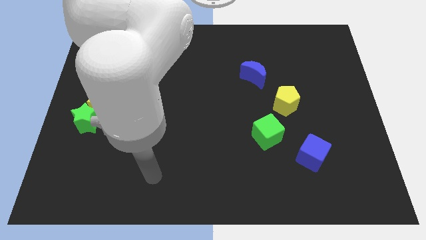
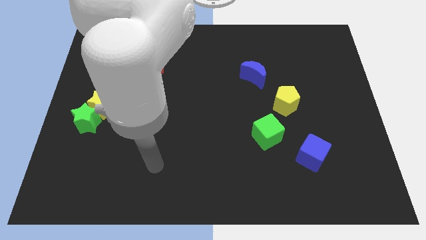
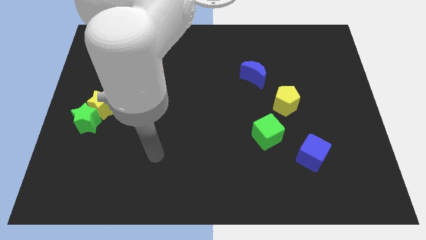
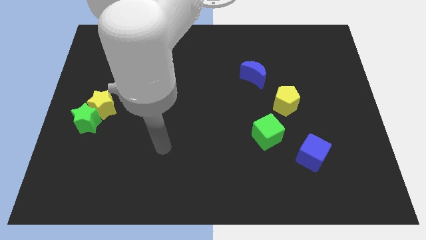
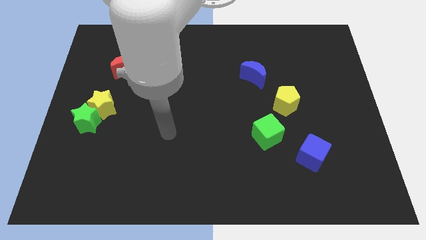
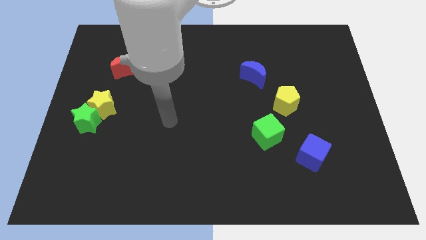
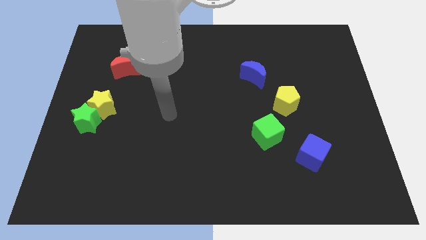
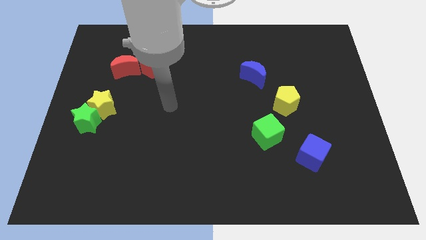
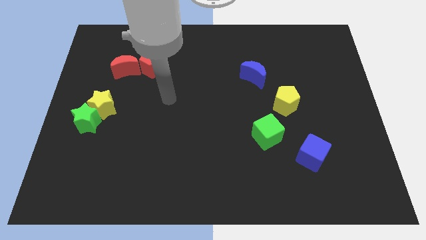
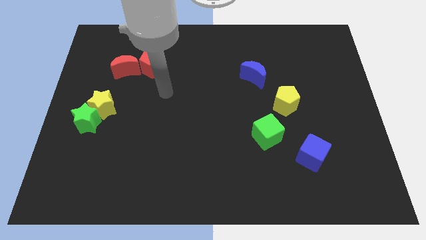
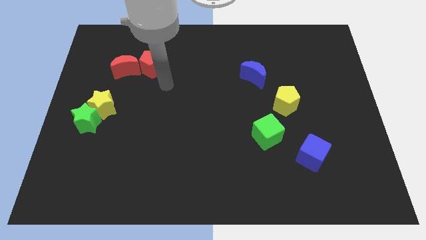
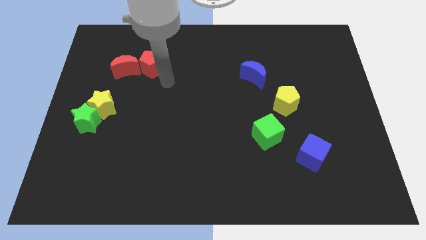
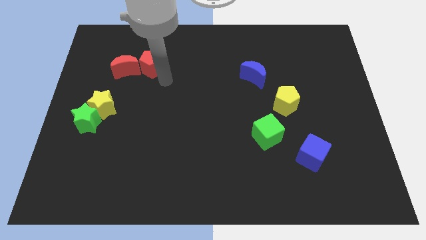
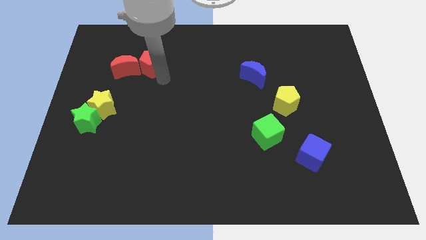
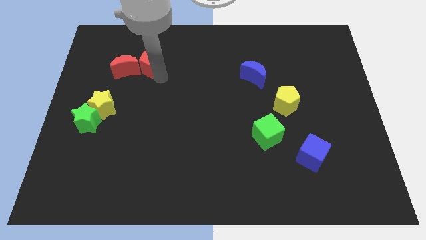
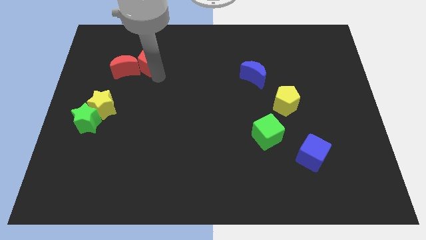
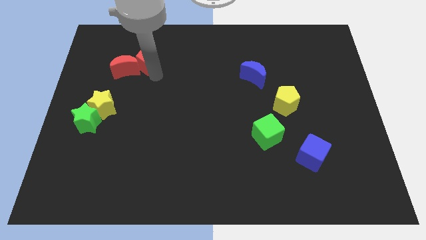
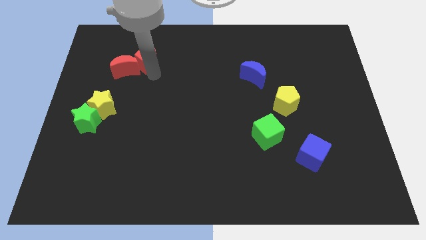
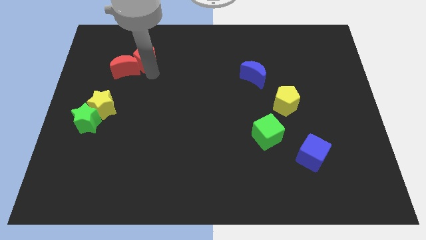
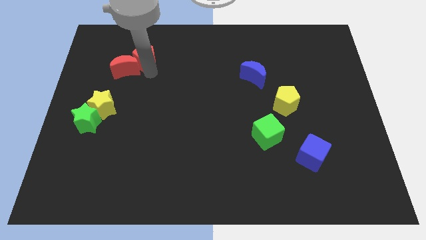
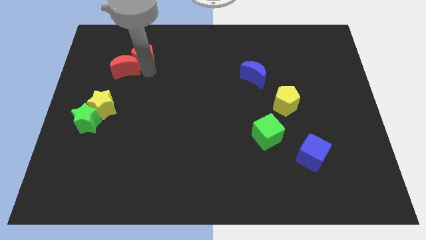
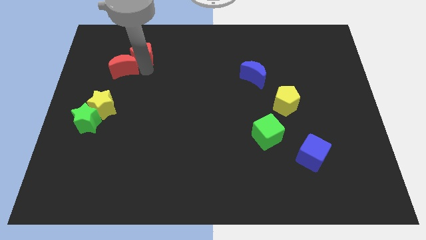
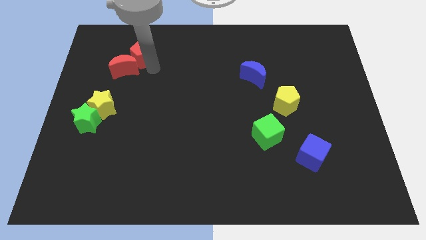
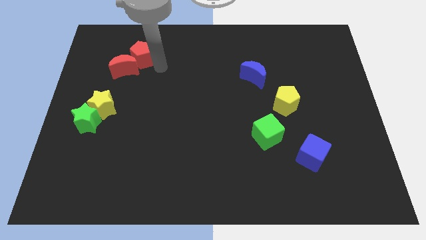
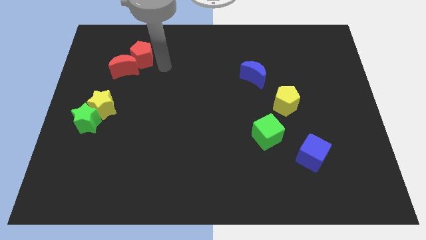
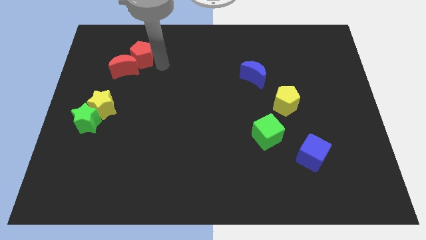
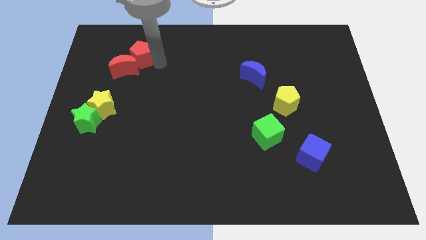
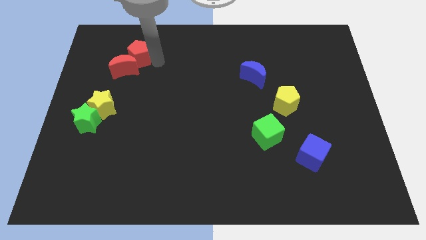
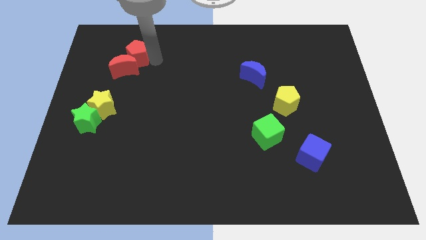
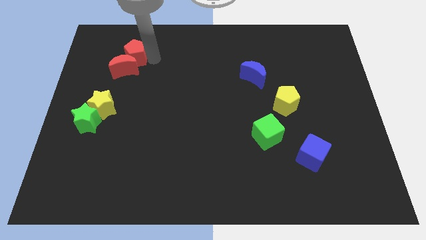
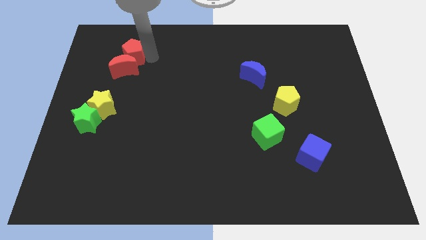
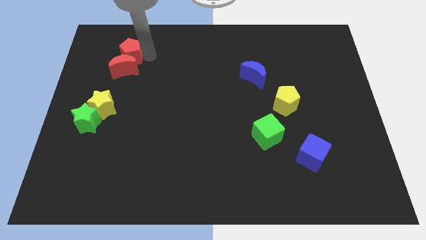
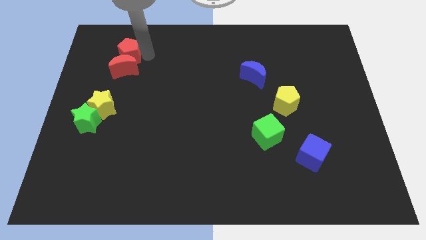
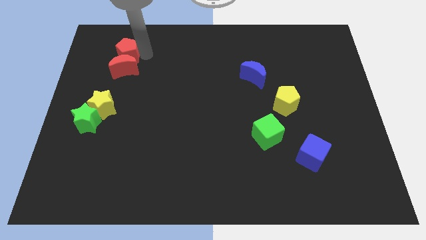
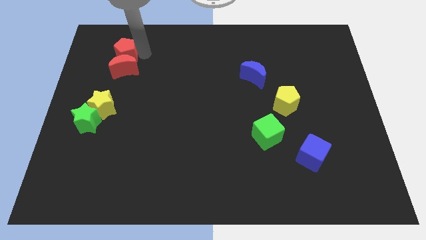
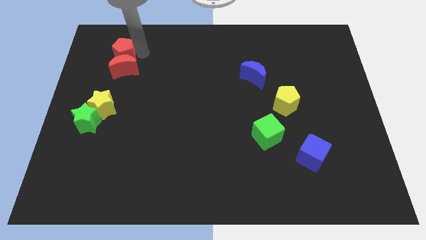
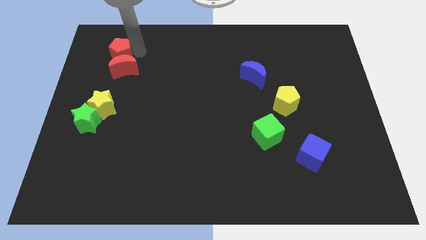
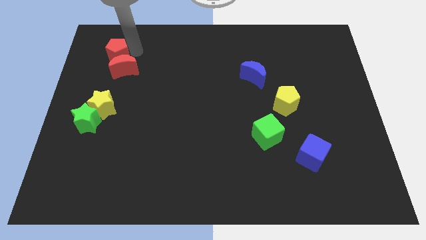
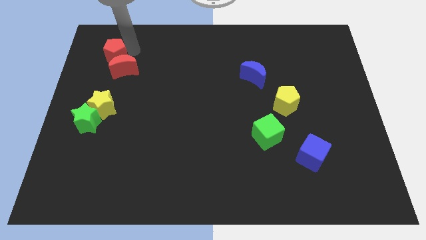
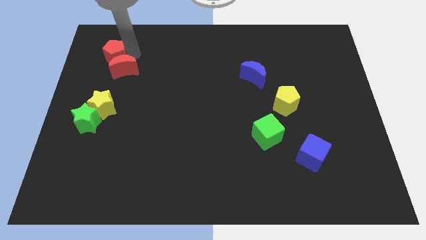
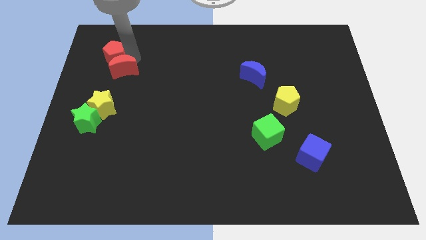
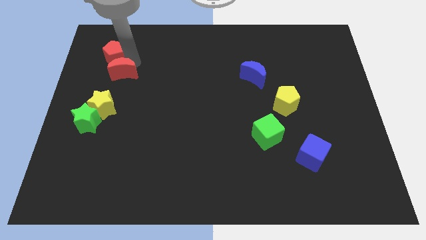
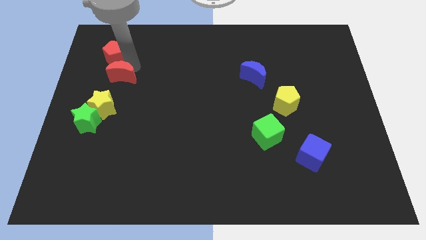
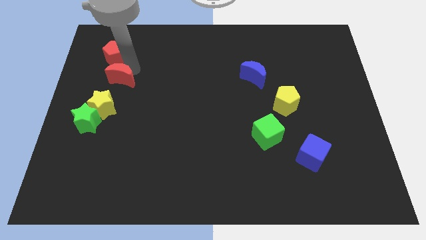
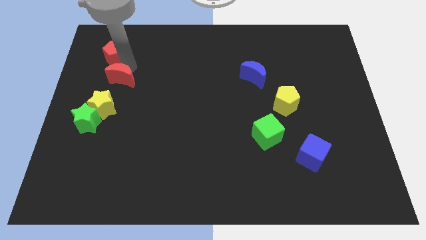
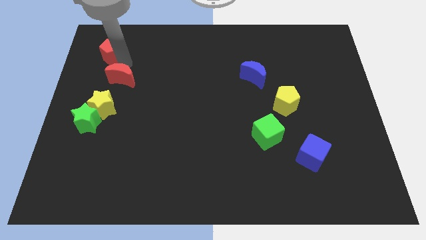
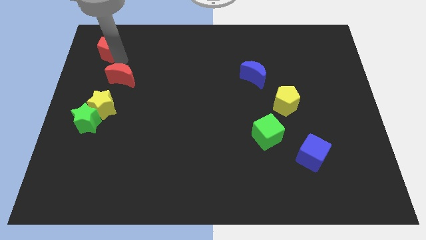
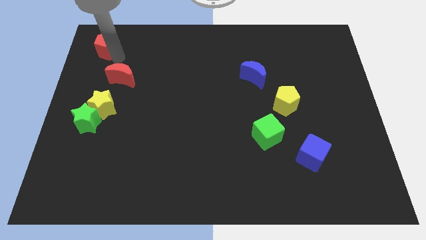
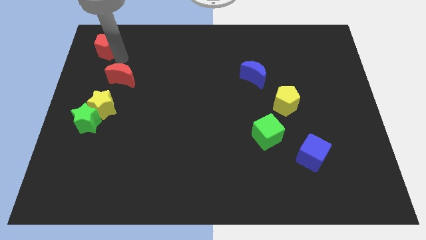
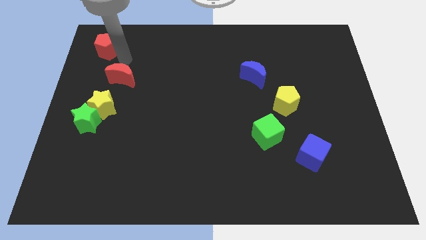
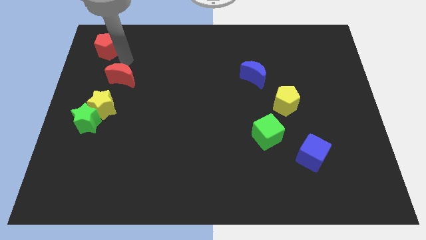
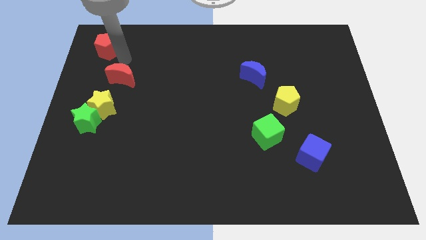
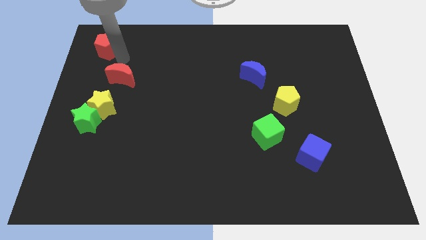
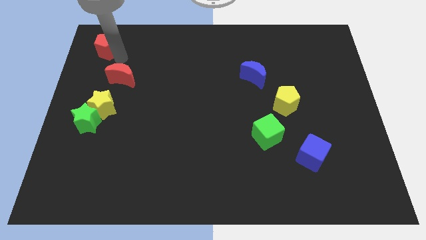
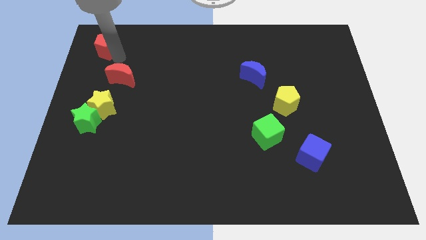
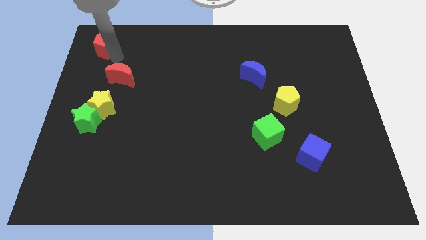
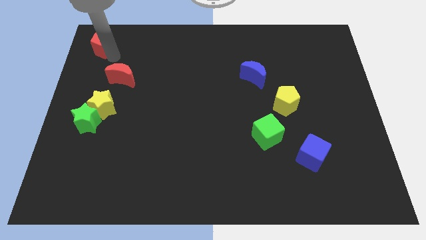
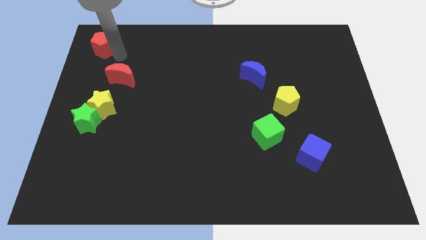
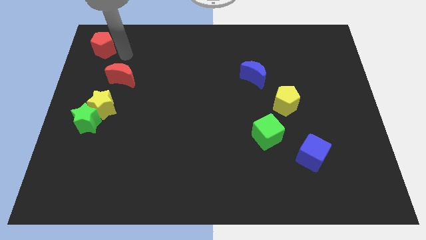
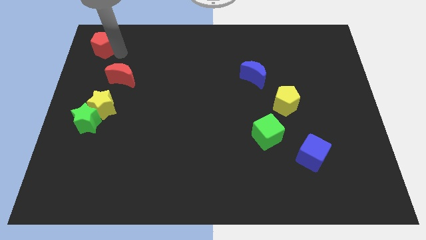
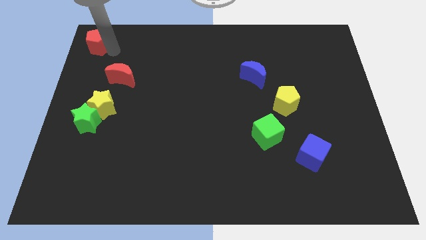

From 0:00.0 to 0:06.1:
move the red pentagon to the top left corner
